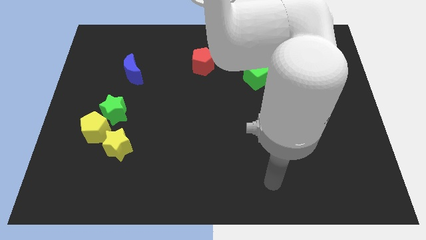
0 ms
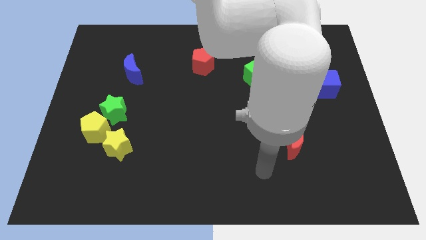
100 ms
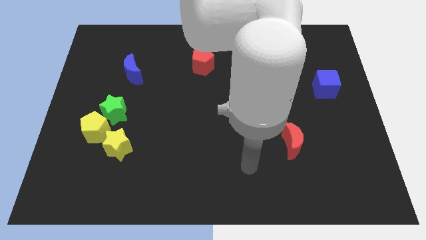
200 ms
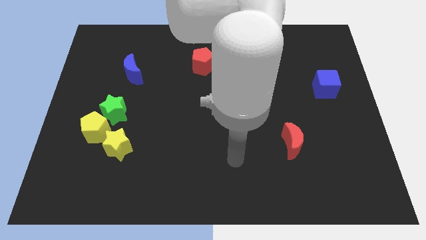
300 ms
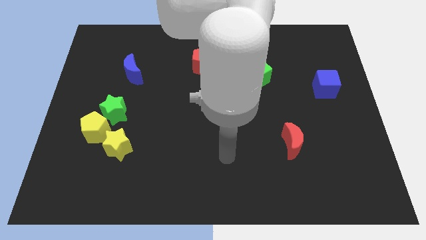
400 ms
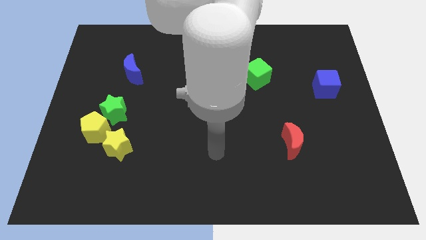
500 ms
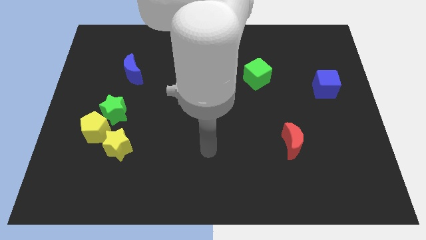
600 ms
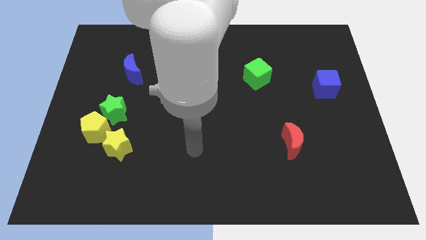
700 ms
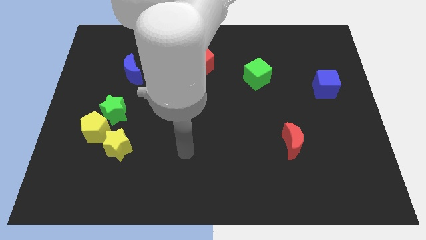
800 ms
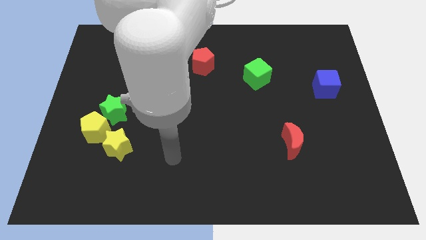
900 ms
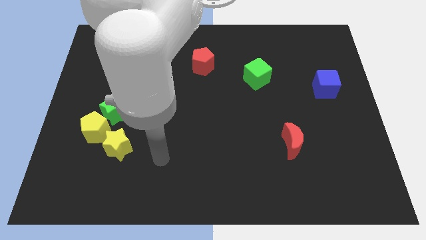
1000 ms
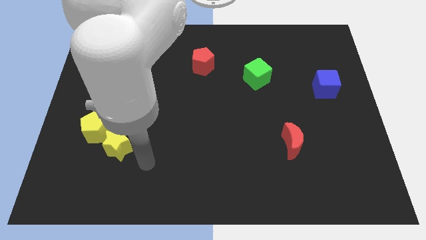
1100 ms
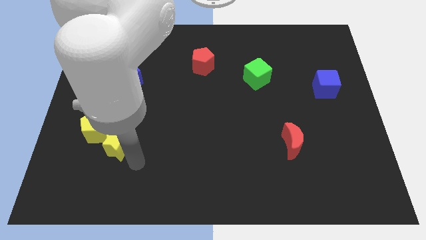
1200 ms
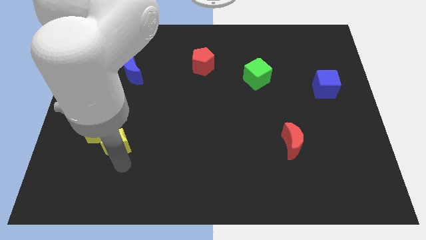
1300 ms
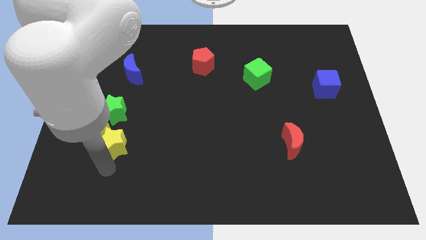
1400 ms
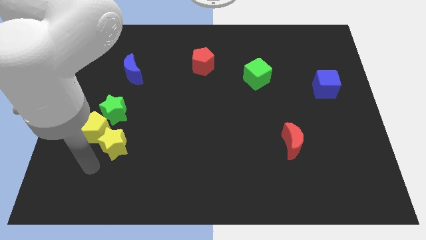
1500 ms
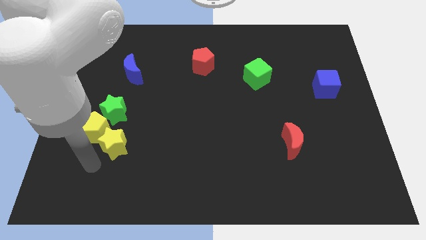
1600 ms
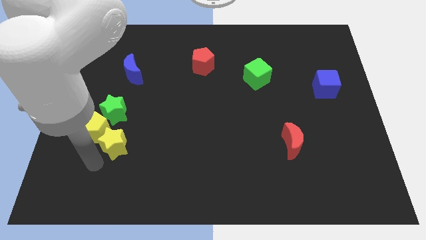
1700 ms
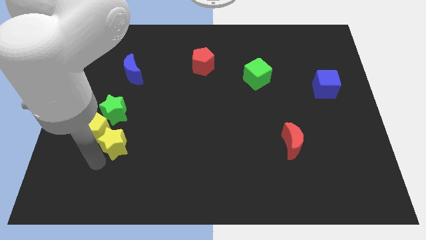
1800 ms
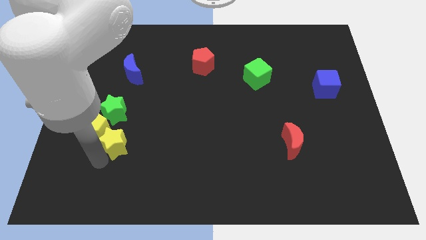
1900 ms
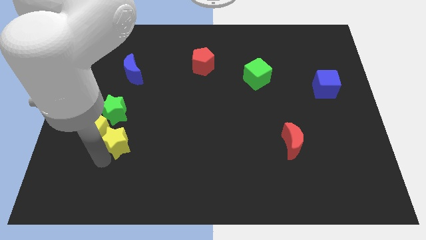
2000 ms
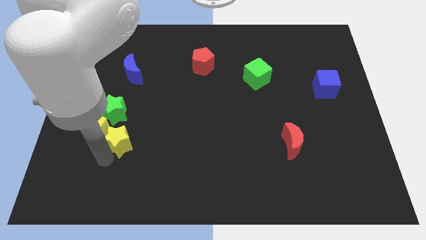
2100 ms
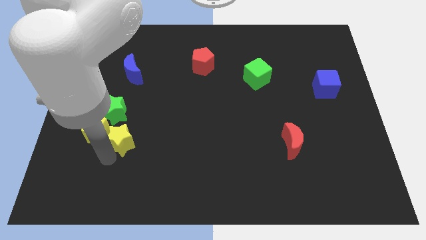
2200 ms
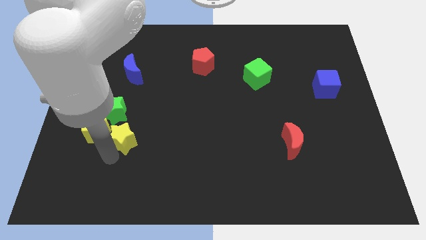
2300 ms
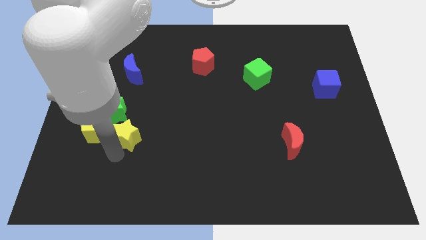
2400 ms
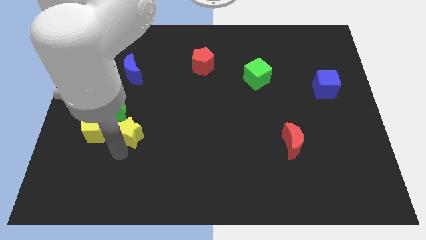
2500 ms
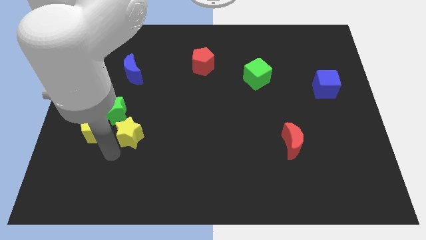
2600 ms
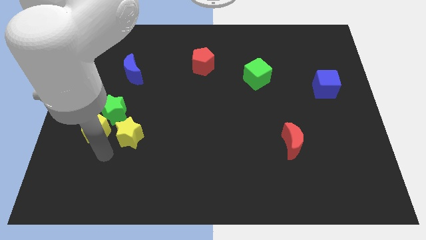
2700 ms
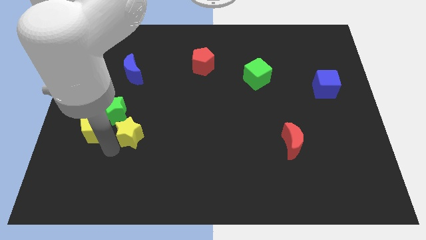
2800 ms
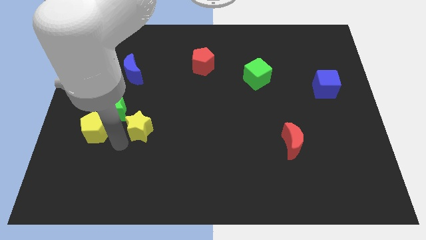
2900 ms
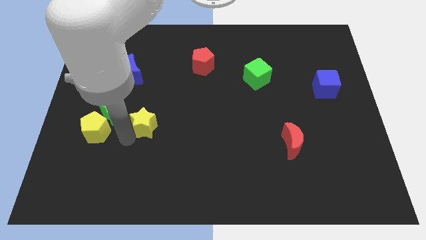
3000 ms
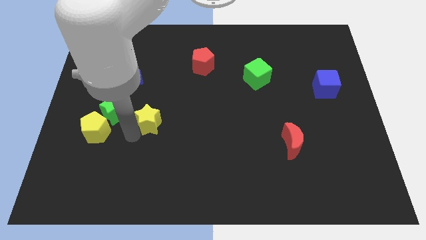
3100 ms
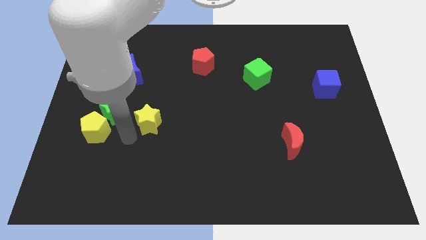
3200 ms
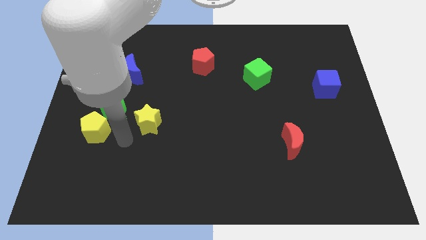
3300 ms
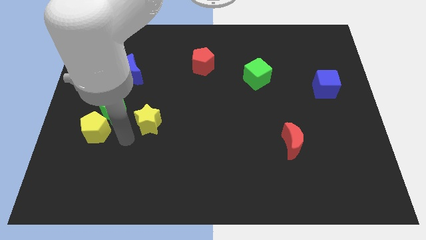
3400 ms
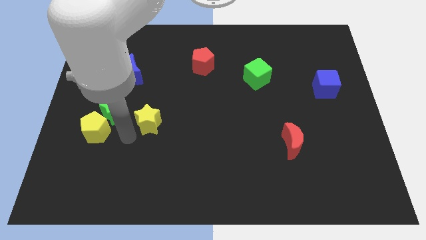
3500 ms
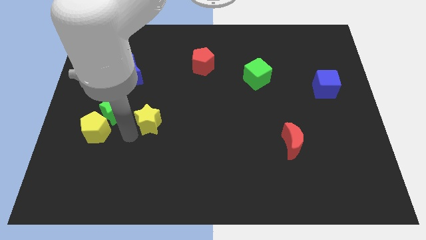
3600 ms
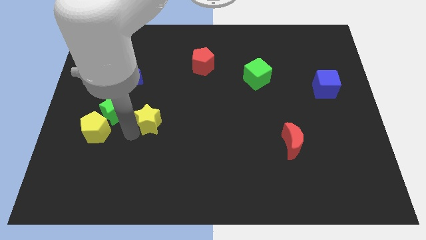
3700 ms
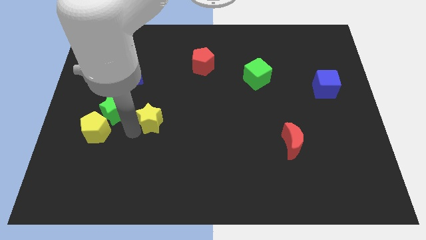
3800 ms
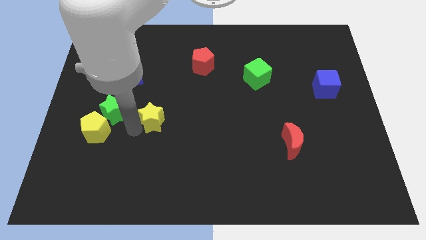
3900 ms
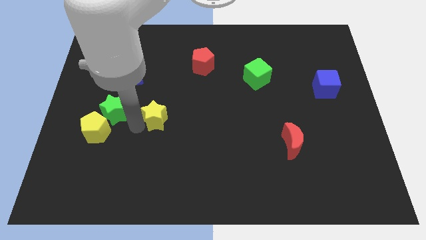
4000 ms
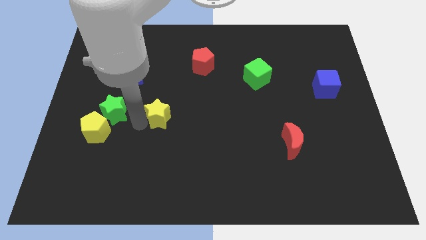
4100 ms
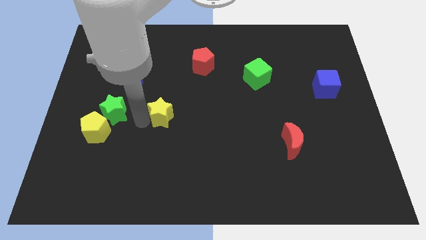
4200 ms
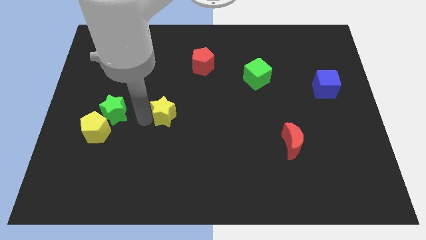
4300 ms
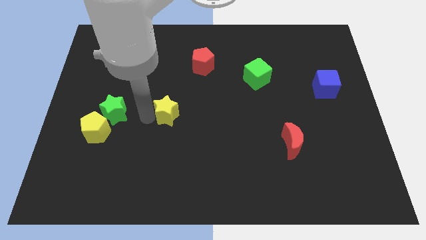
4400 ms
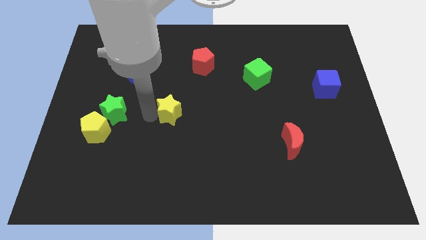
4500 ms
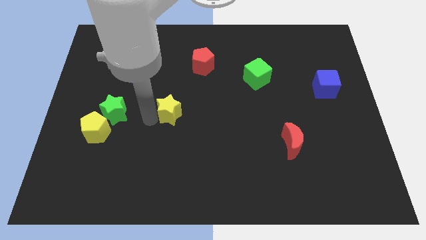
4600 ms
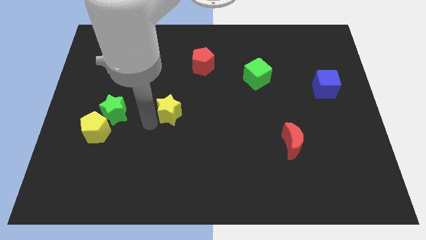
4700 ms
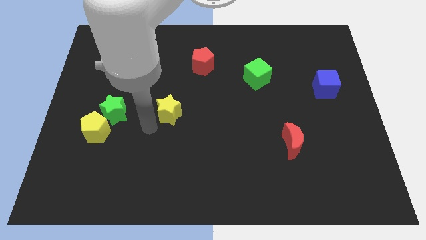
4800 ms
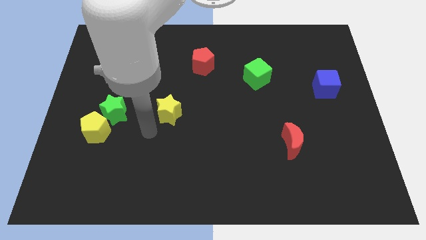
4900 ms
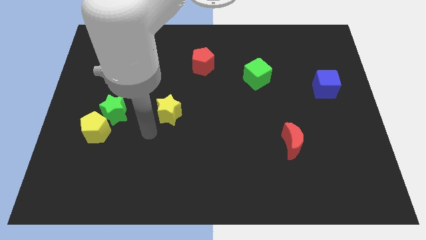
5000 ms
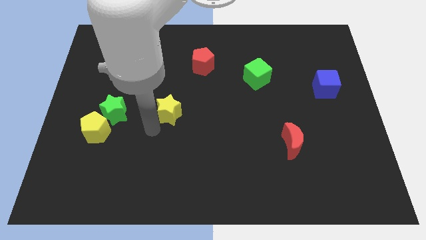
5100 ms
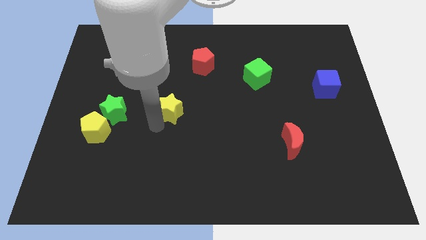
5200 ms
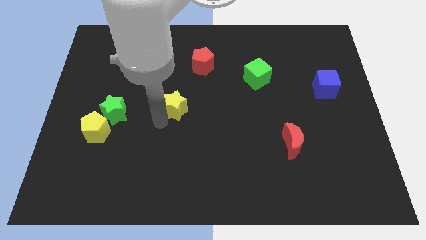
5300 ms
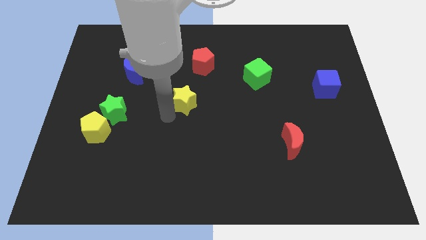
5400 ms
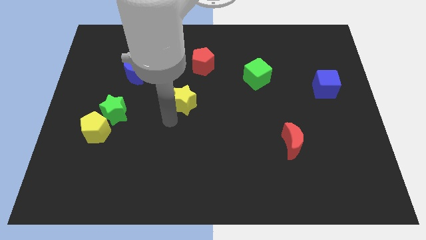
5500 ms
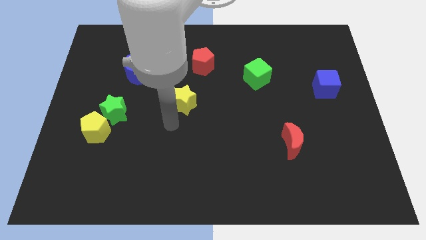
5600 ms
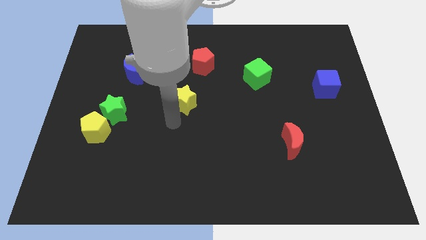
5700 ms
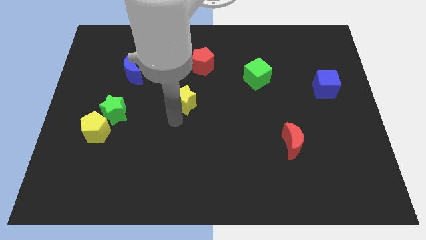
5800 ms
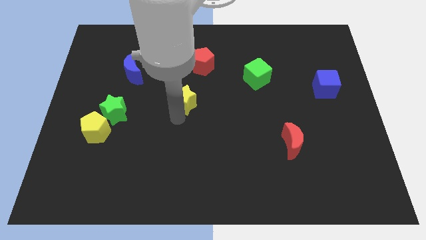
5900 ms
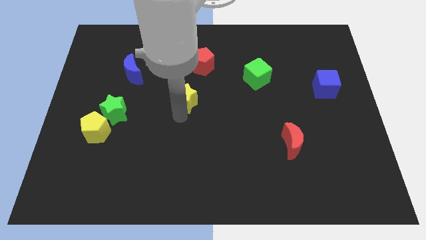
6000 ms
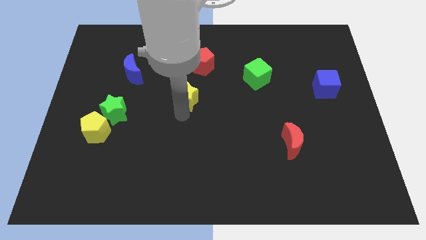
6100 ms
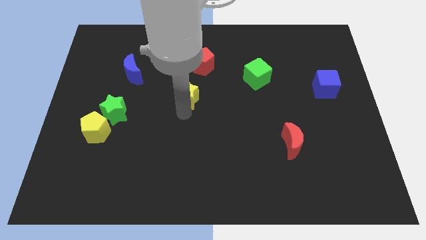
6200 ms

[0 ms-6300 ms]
slide the yellow star up and right diagonally

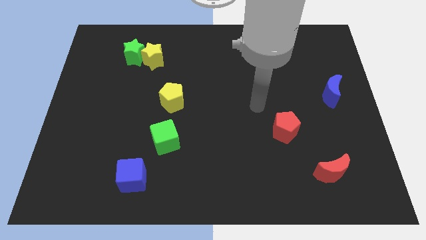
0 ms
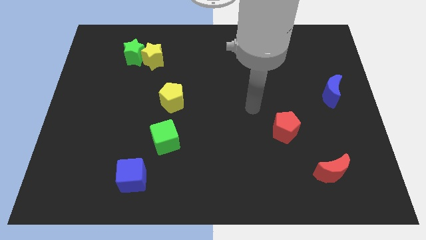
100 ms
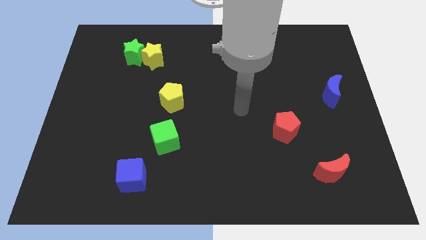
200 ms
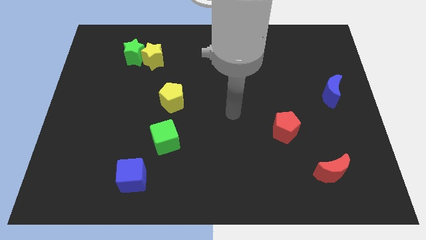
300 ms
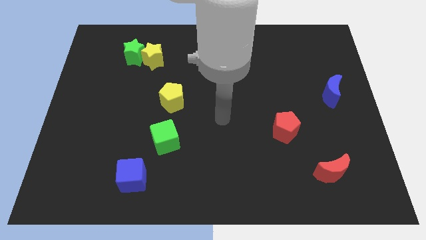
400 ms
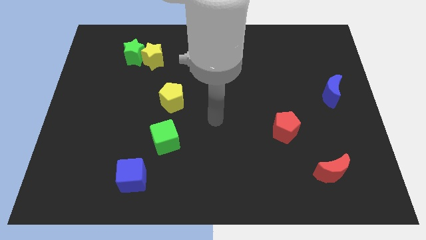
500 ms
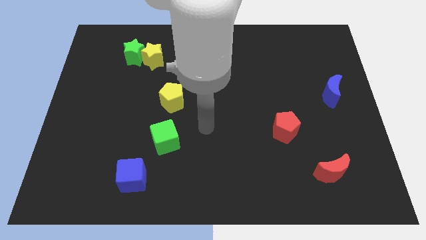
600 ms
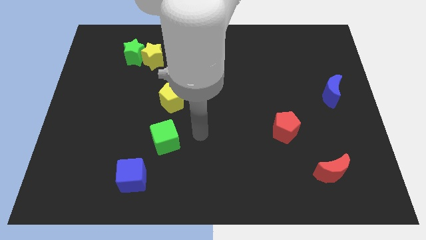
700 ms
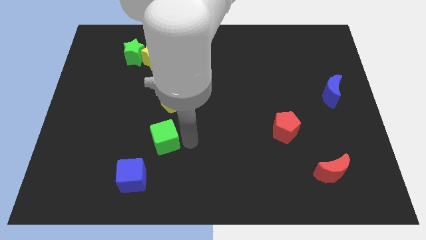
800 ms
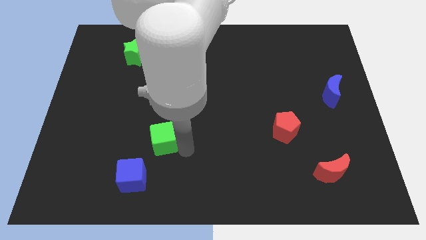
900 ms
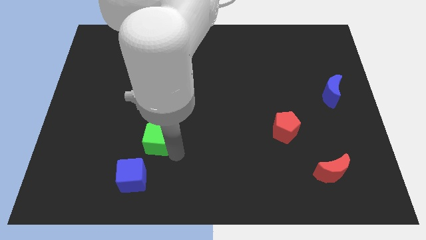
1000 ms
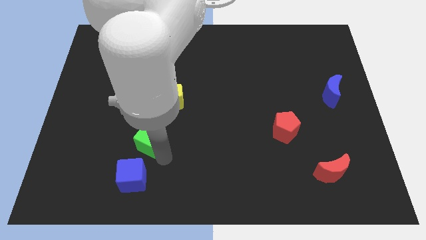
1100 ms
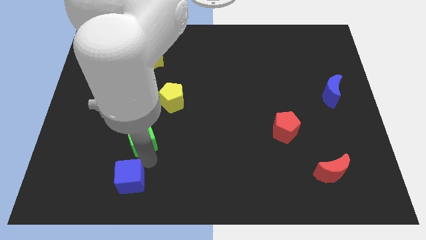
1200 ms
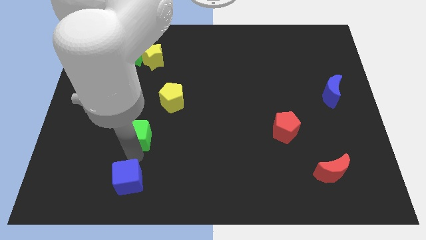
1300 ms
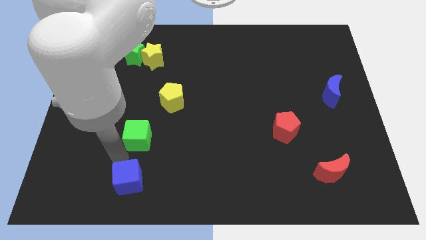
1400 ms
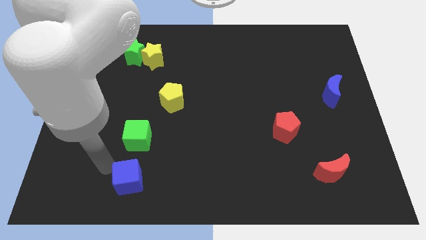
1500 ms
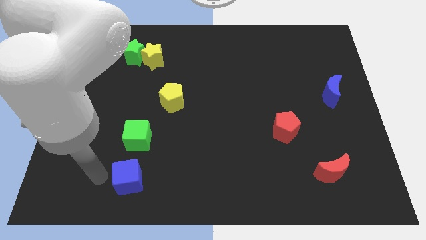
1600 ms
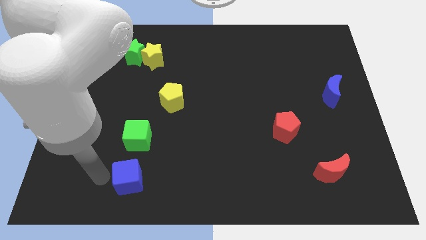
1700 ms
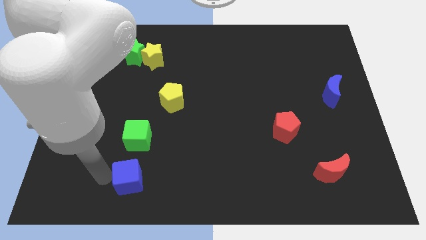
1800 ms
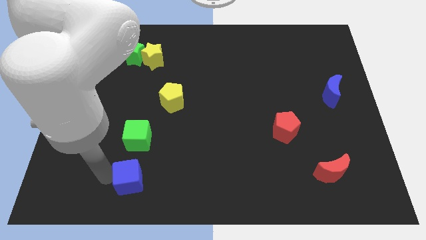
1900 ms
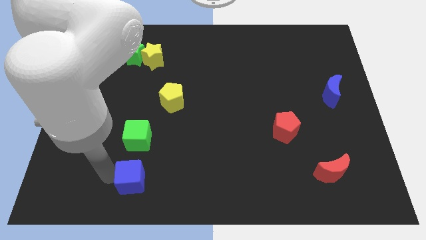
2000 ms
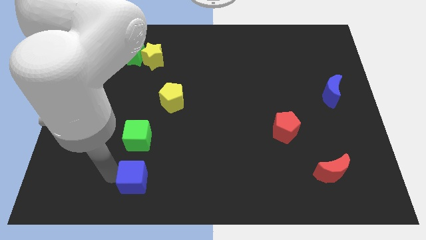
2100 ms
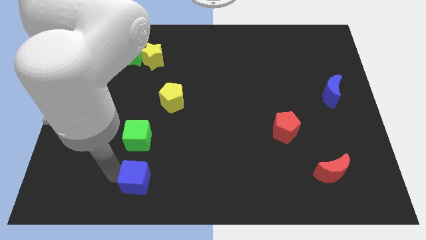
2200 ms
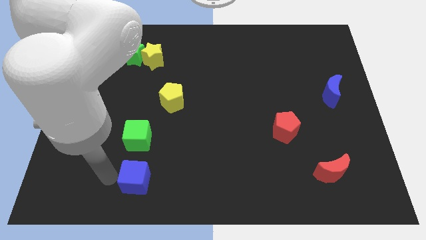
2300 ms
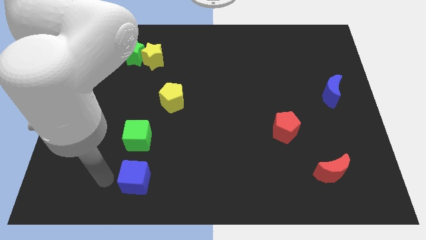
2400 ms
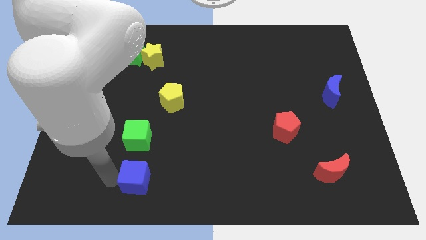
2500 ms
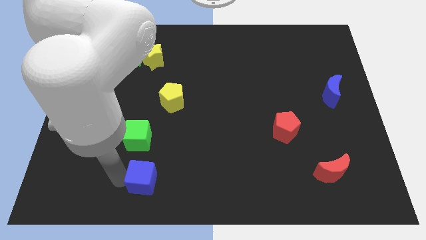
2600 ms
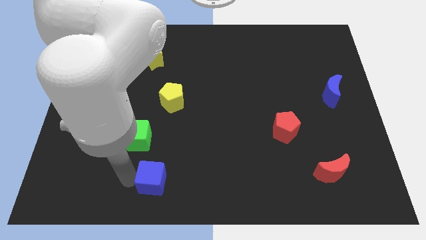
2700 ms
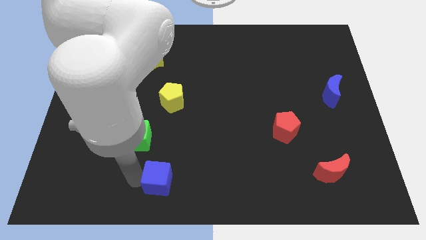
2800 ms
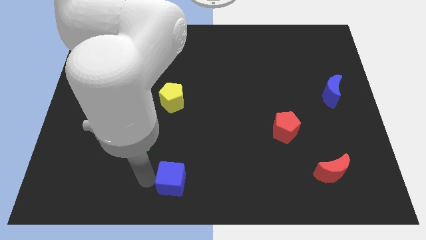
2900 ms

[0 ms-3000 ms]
slightly push the blue cube right
